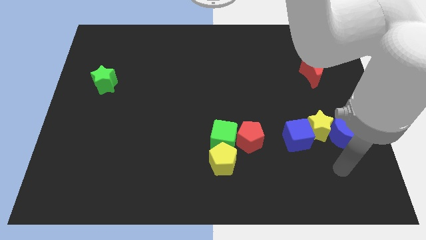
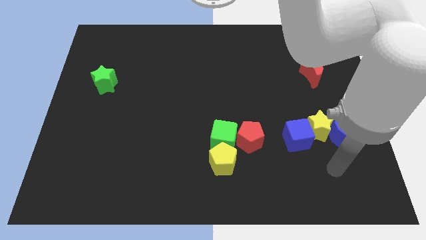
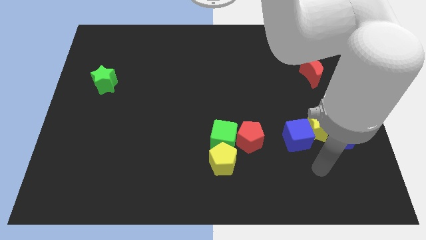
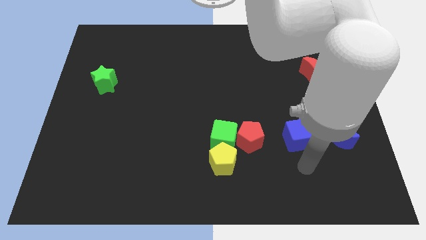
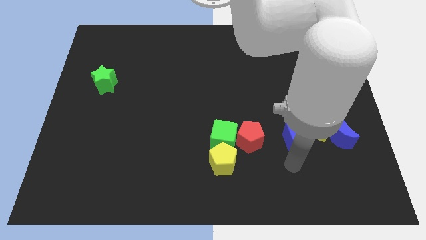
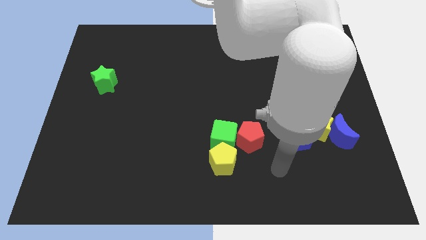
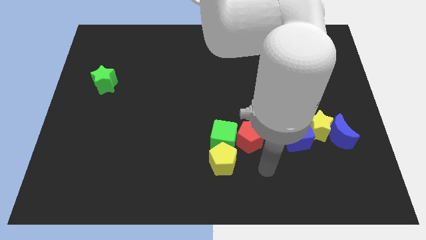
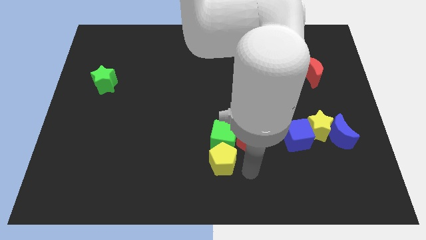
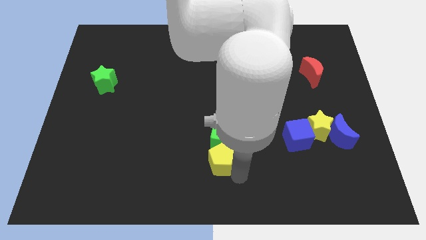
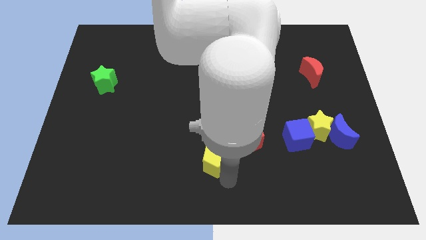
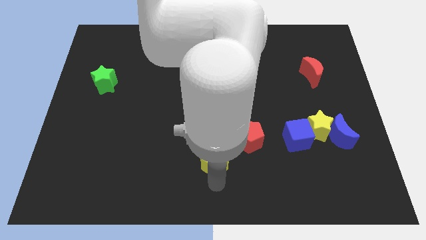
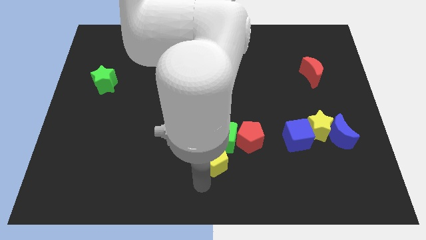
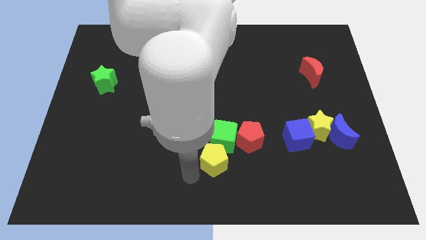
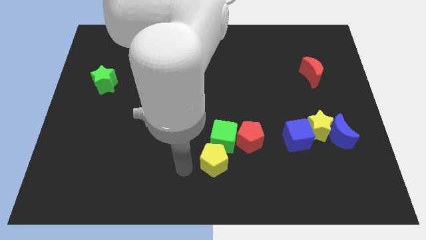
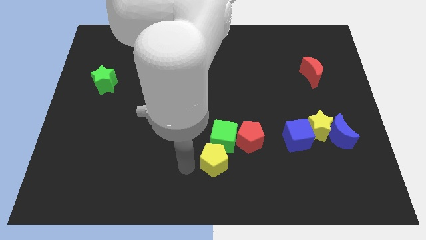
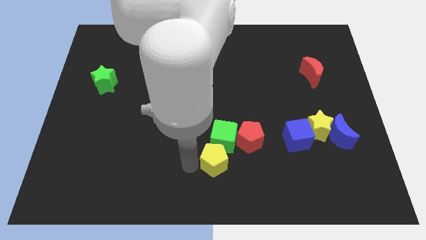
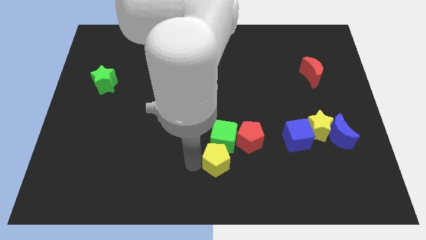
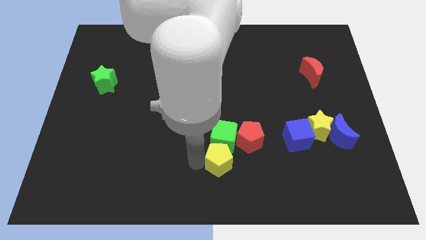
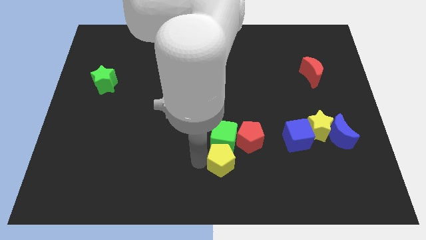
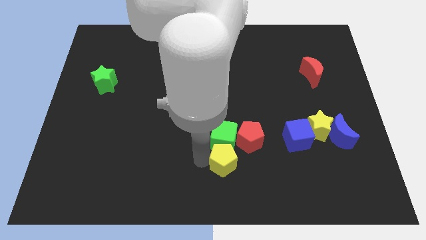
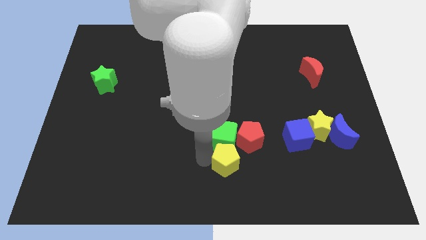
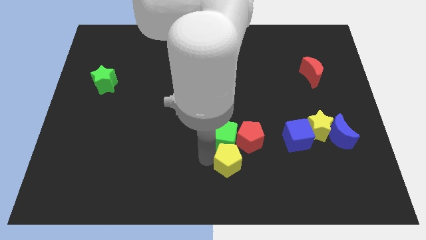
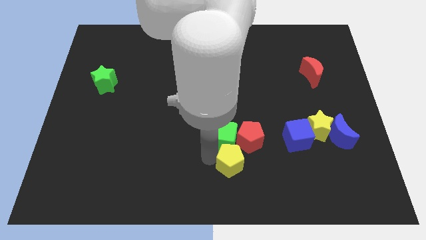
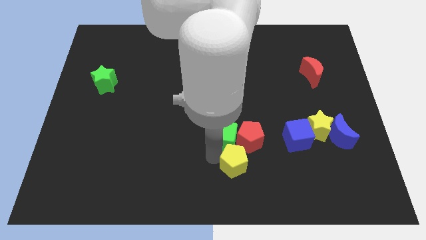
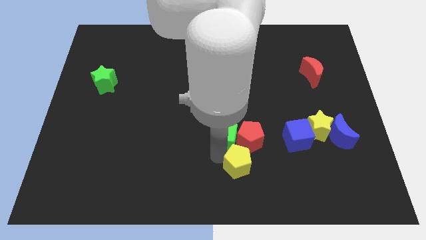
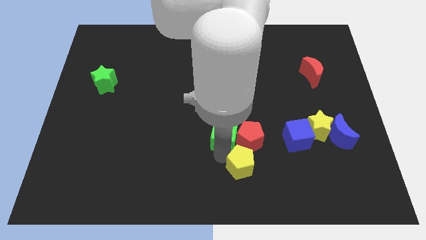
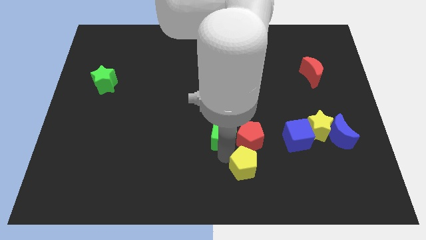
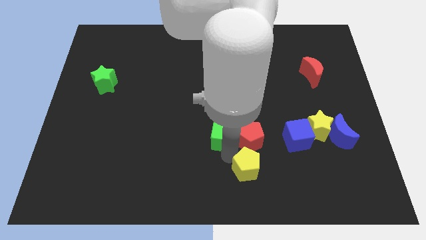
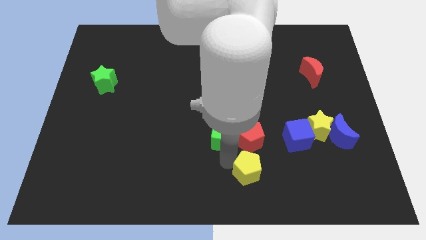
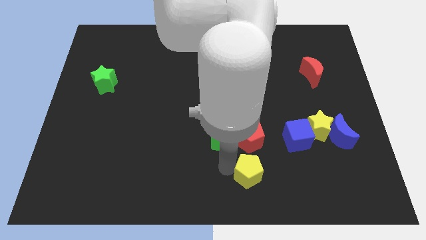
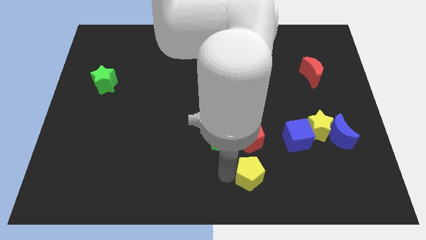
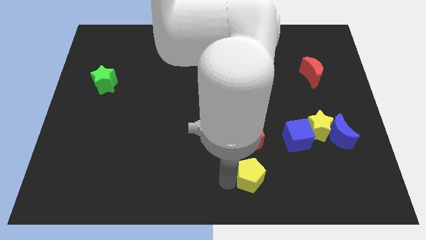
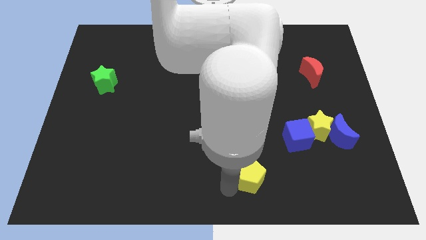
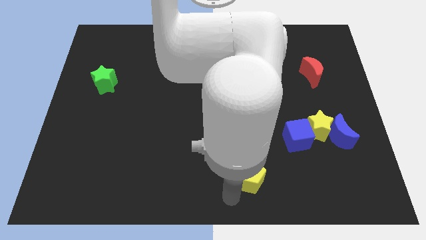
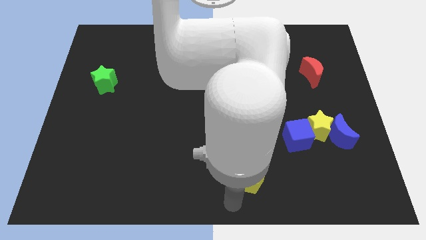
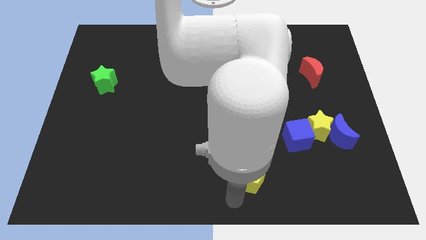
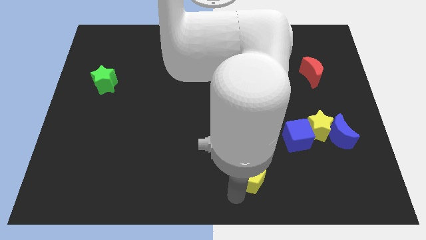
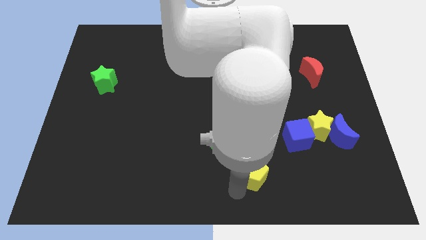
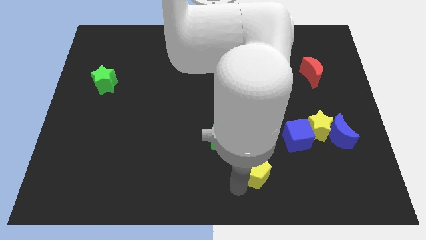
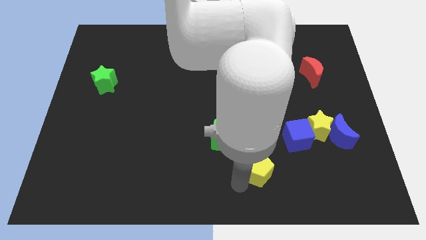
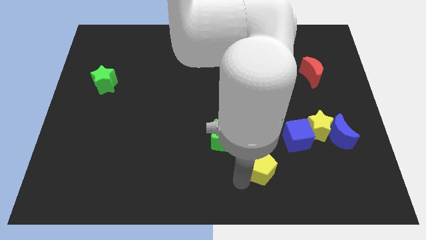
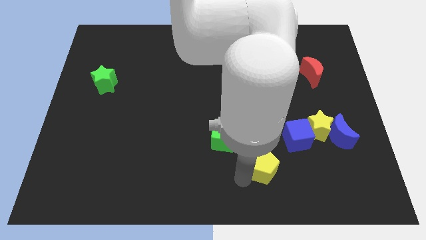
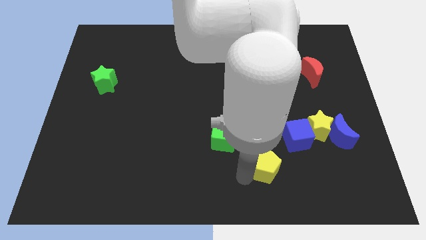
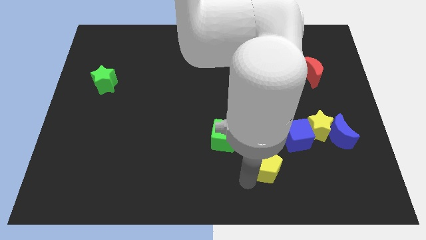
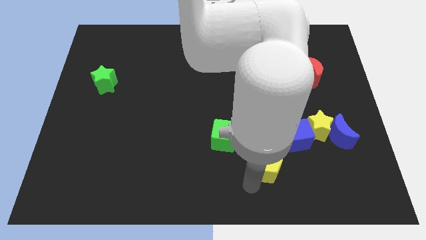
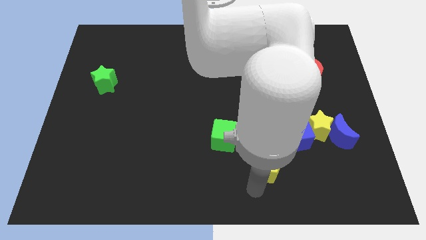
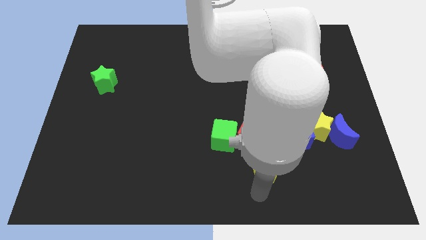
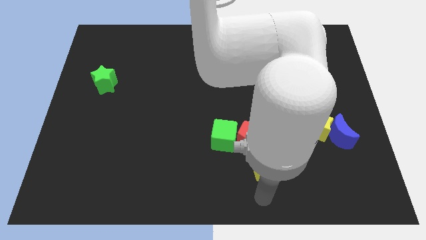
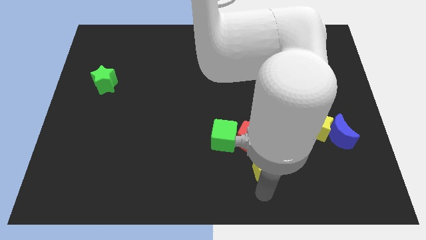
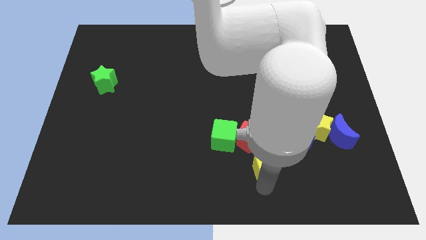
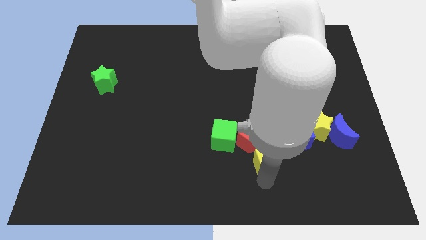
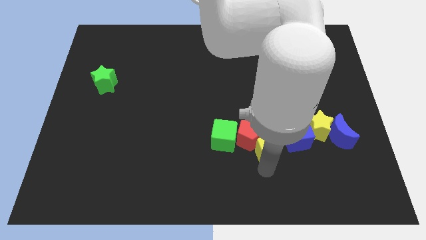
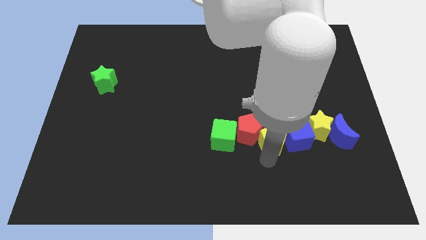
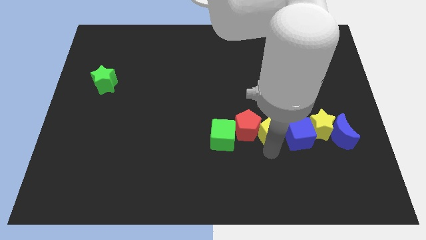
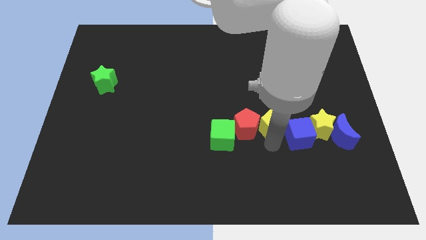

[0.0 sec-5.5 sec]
put the yellow pentagon to the top right of the red pentagon

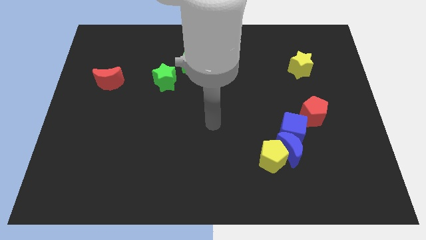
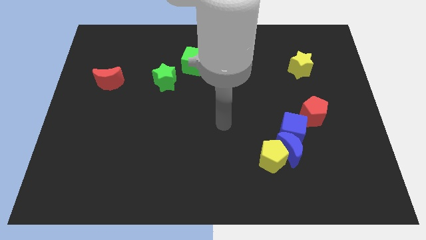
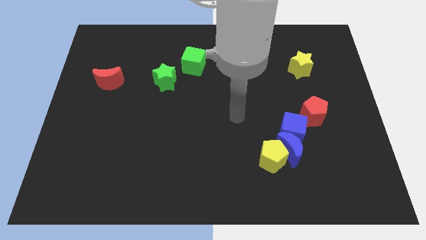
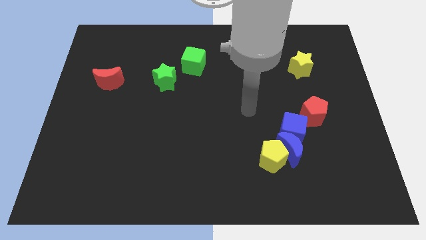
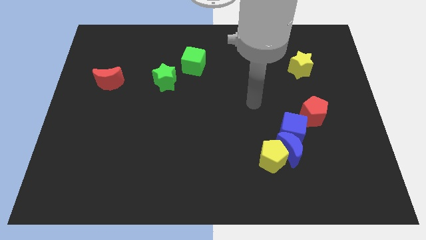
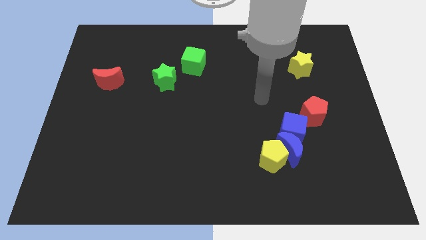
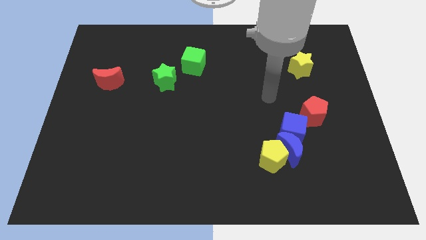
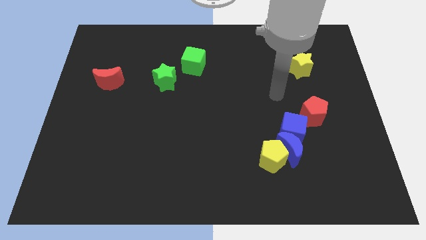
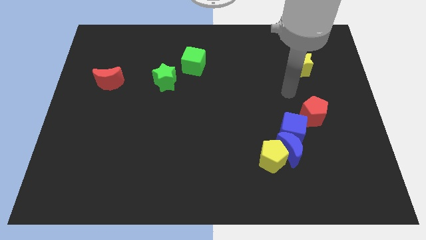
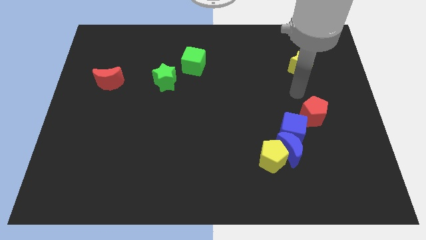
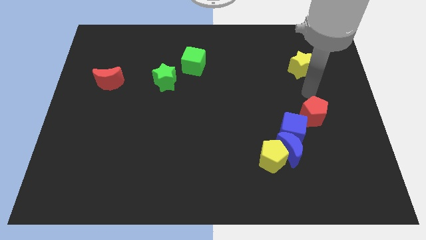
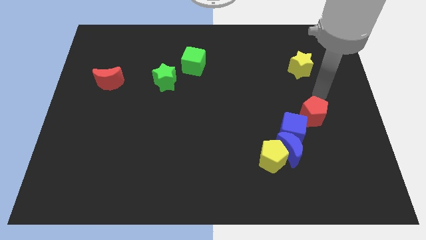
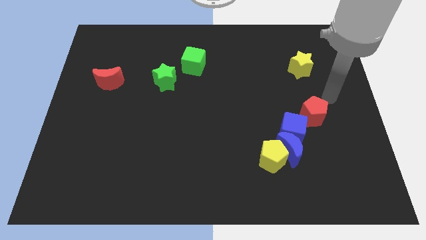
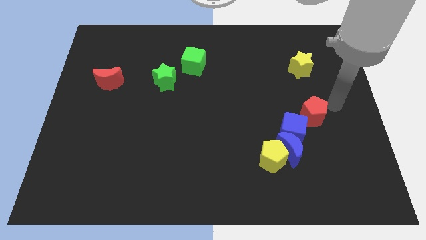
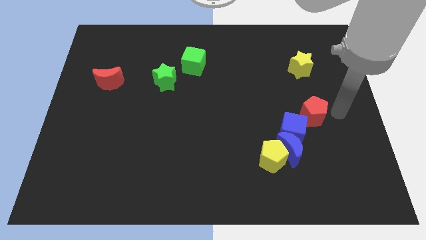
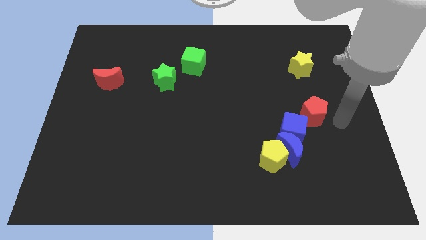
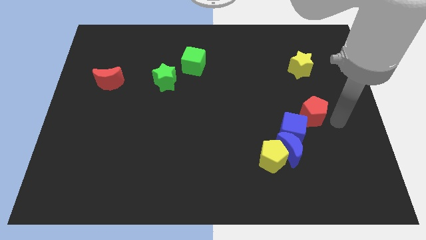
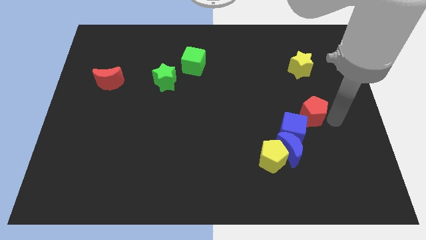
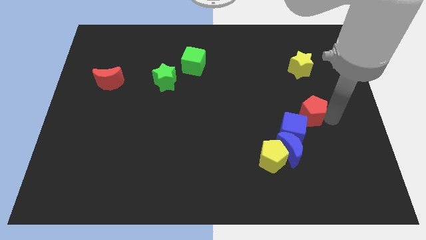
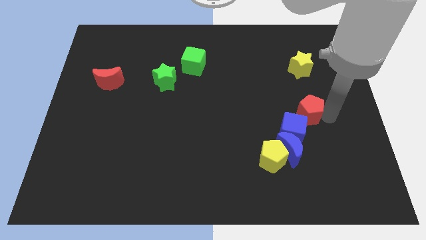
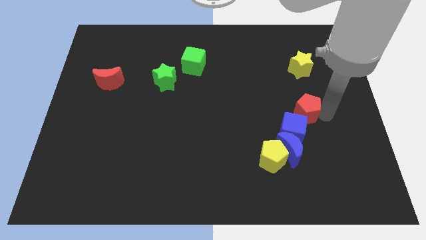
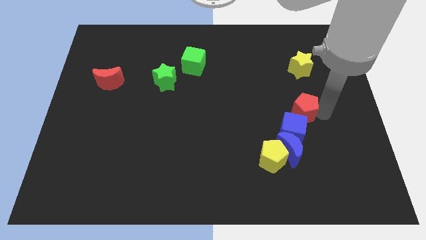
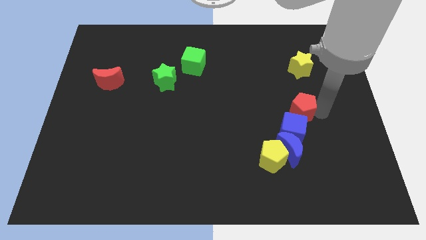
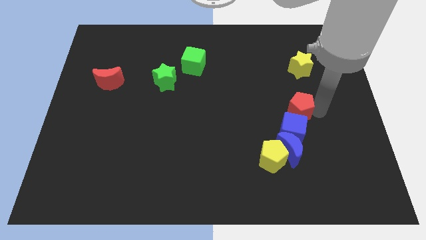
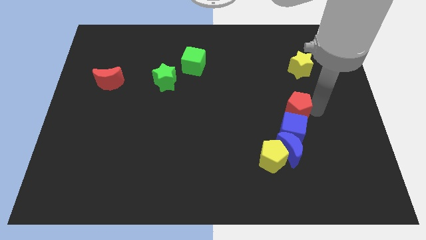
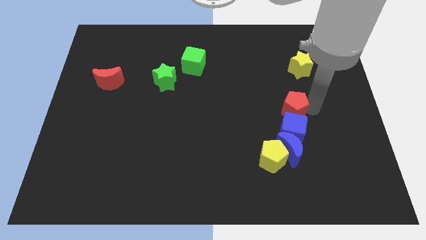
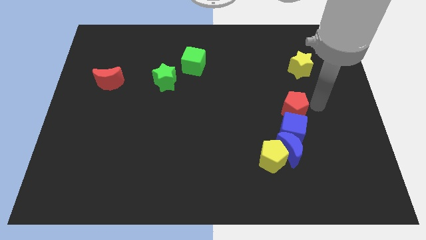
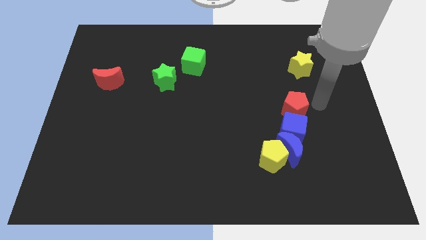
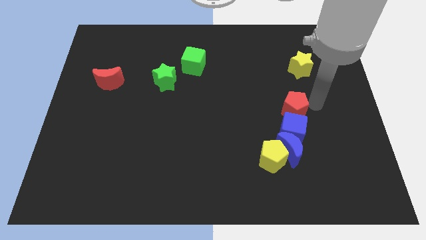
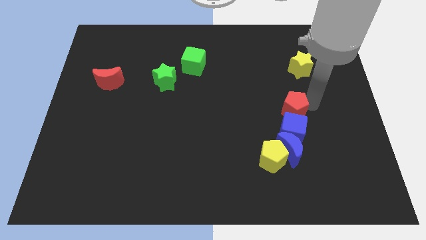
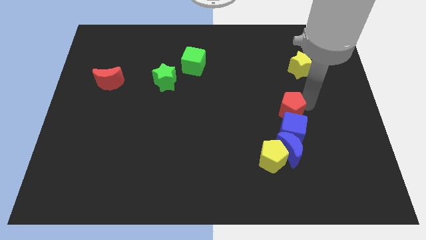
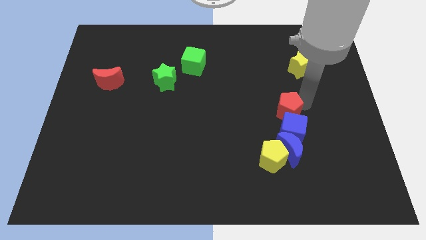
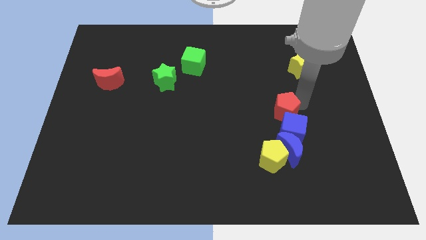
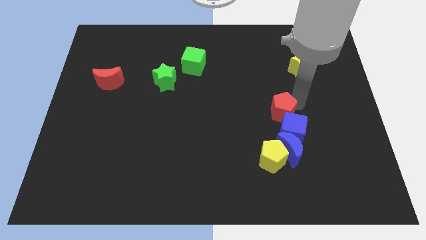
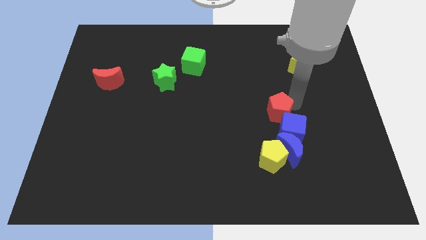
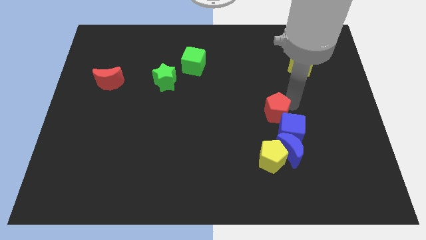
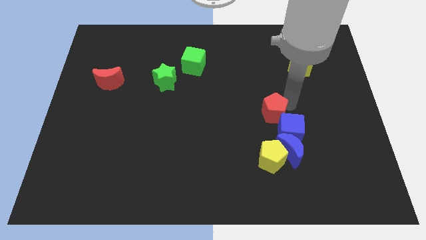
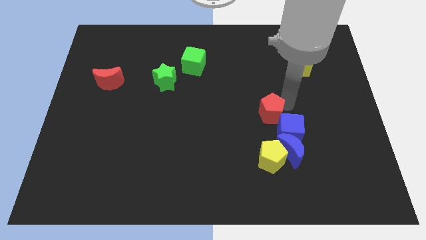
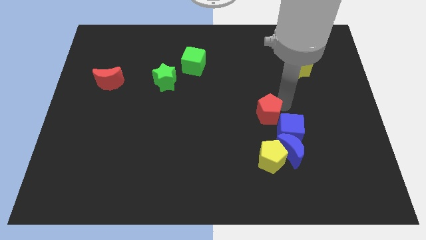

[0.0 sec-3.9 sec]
move the red pentagon to the top left of the blue moon
